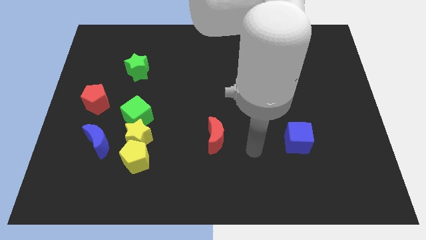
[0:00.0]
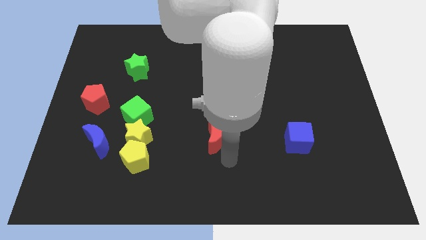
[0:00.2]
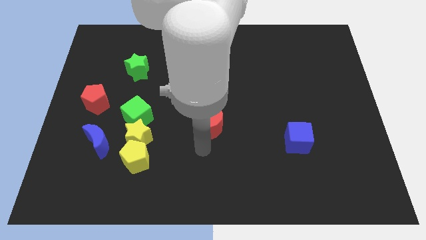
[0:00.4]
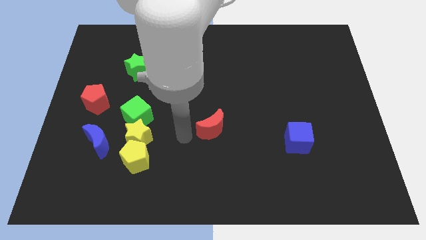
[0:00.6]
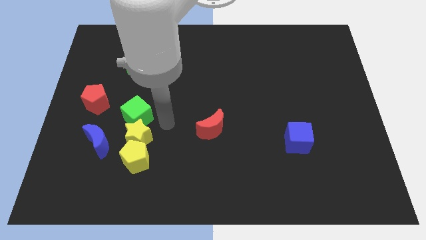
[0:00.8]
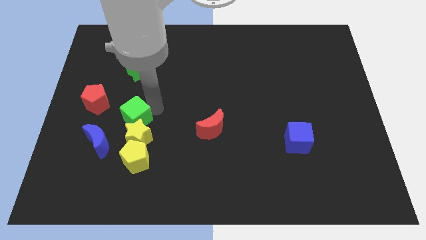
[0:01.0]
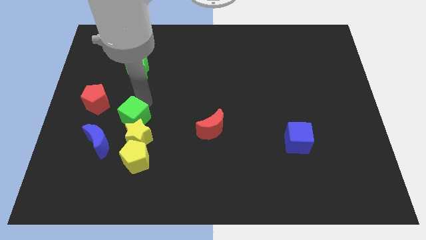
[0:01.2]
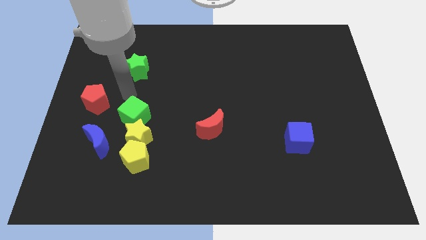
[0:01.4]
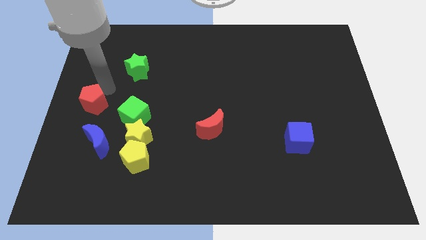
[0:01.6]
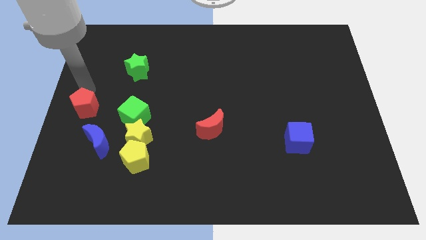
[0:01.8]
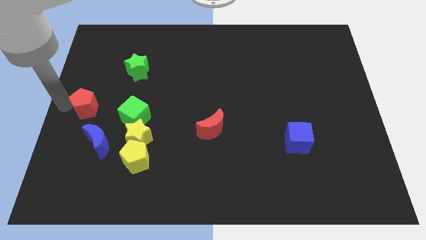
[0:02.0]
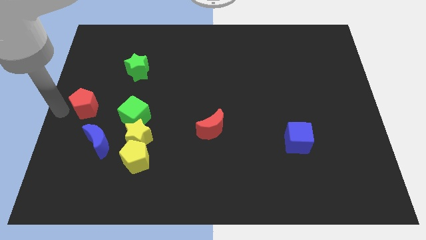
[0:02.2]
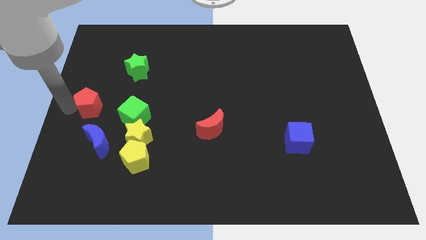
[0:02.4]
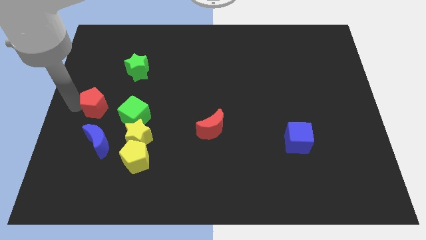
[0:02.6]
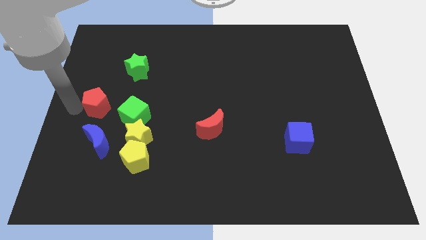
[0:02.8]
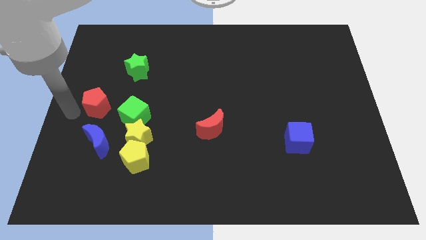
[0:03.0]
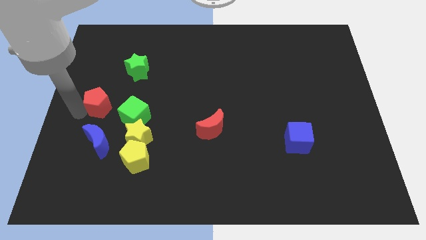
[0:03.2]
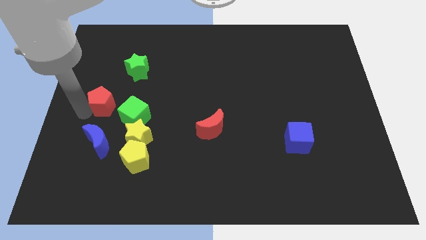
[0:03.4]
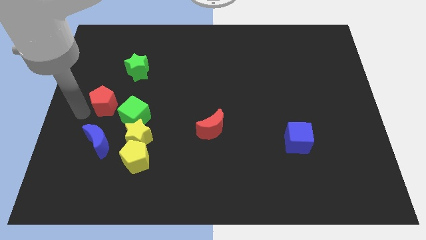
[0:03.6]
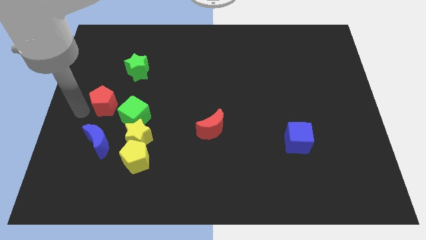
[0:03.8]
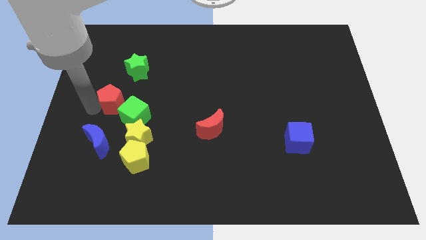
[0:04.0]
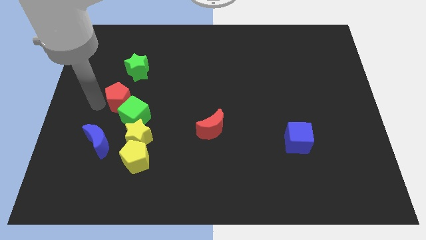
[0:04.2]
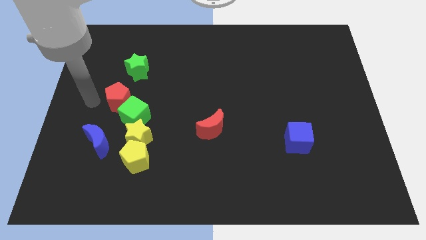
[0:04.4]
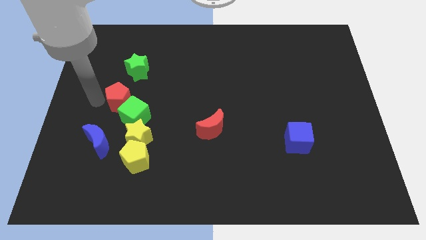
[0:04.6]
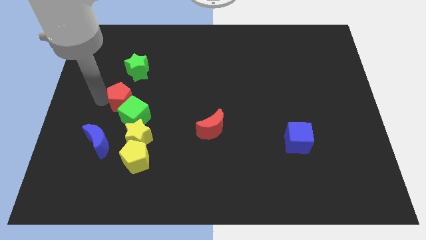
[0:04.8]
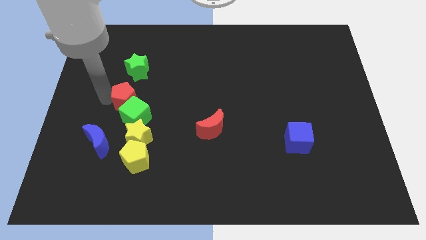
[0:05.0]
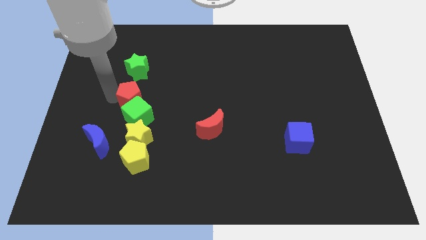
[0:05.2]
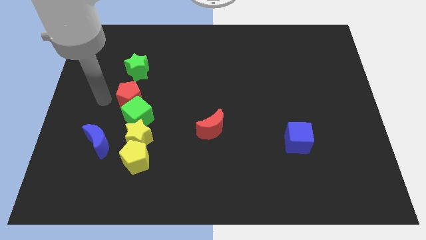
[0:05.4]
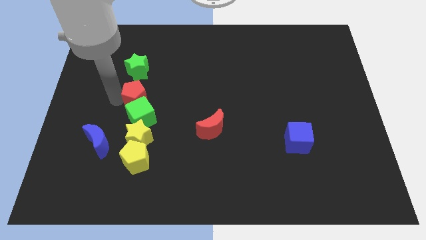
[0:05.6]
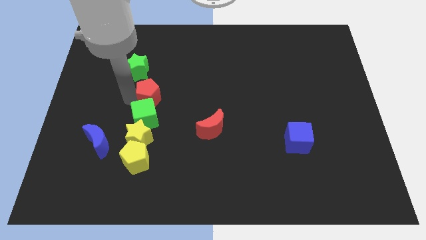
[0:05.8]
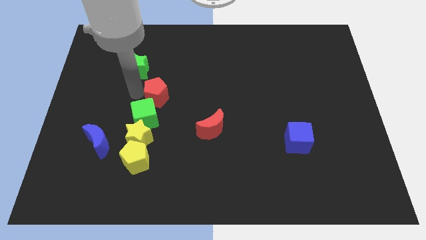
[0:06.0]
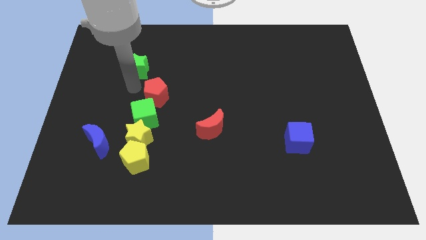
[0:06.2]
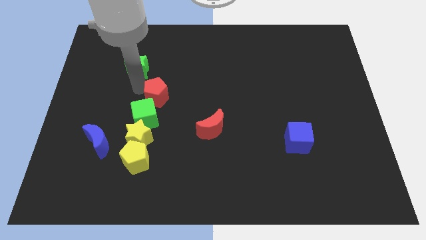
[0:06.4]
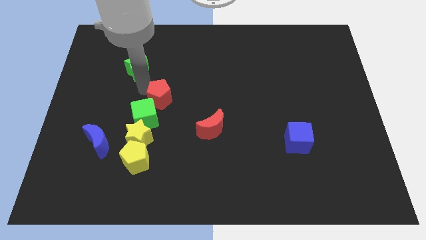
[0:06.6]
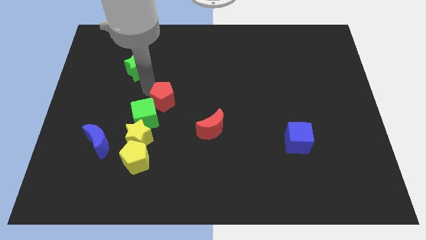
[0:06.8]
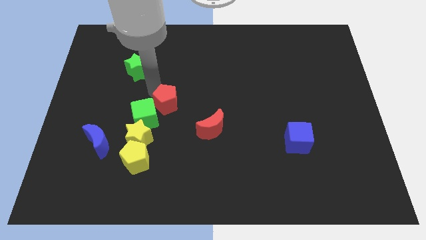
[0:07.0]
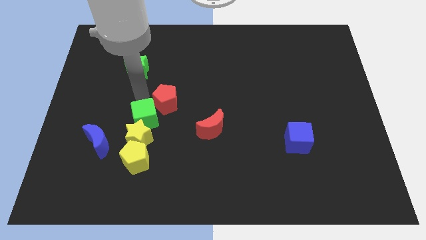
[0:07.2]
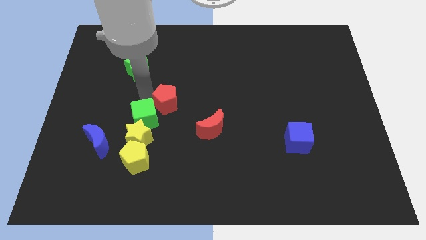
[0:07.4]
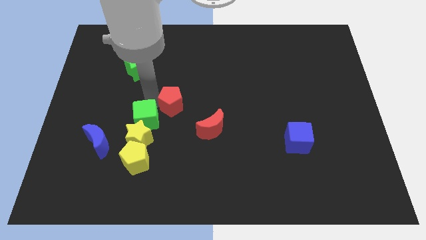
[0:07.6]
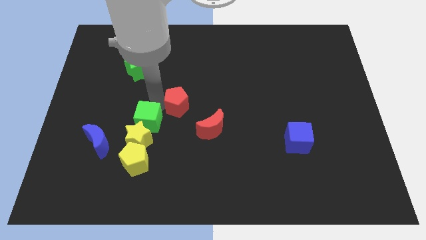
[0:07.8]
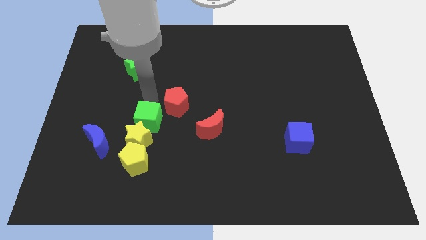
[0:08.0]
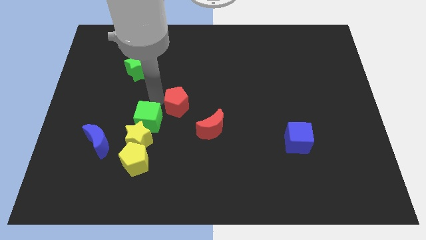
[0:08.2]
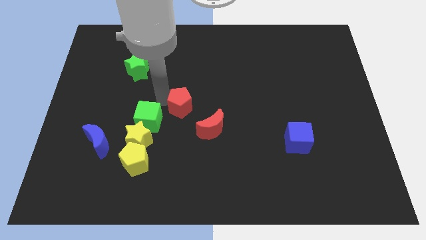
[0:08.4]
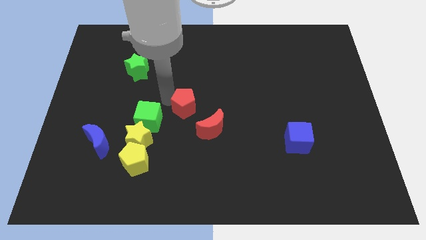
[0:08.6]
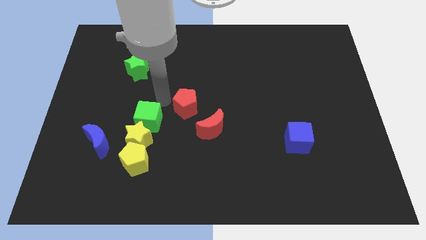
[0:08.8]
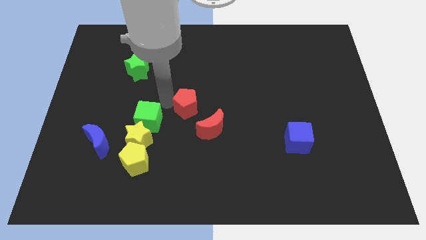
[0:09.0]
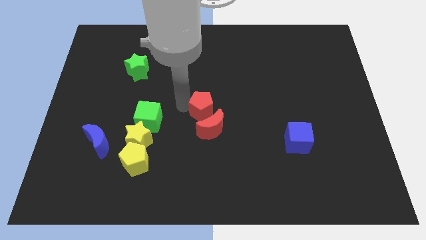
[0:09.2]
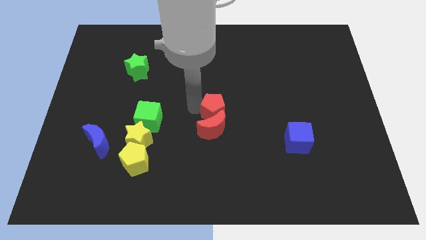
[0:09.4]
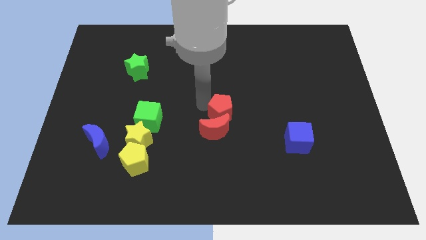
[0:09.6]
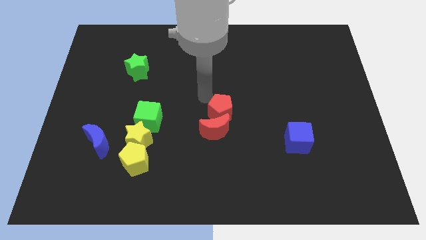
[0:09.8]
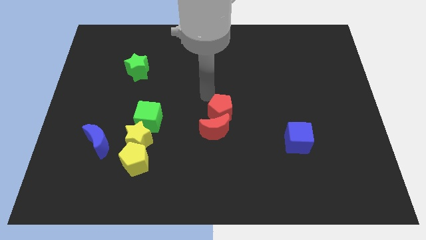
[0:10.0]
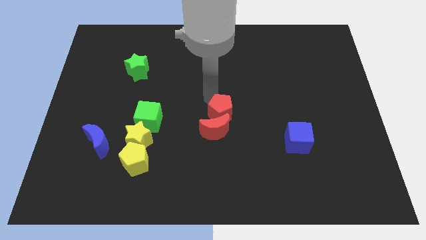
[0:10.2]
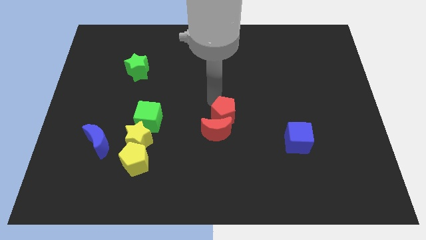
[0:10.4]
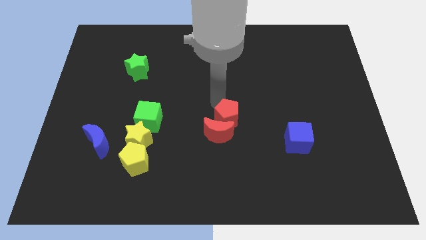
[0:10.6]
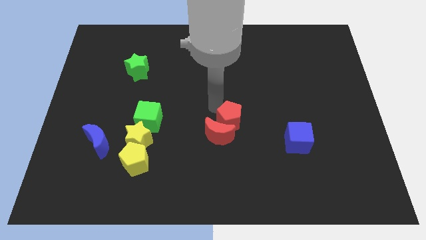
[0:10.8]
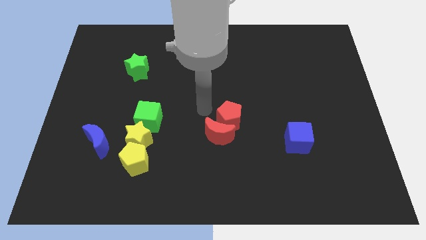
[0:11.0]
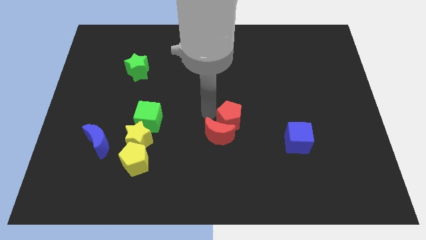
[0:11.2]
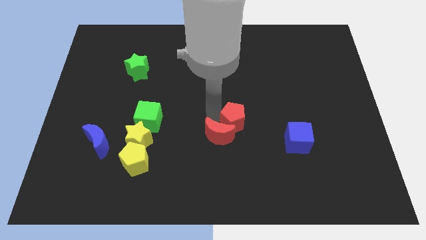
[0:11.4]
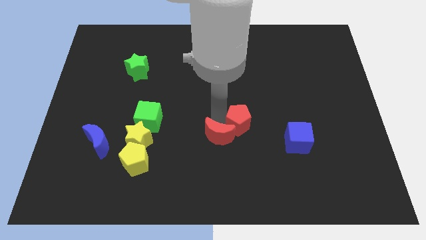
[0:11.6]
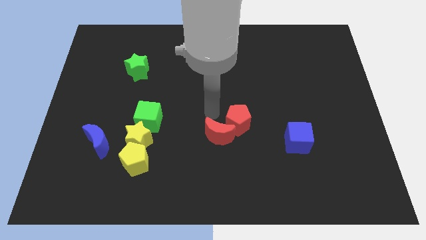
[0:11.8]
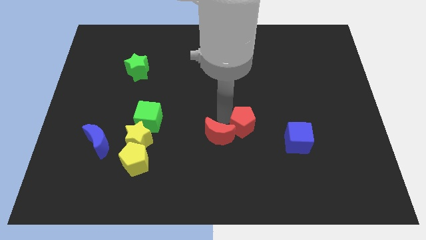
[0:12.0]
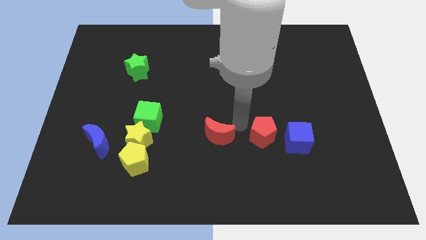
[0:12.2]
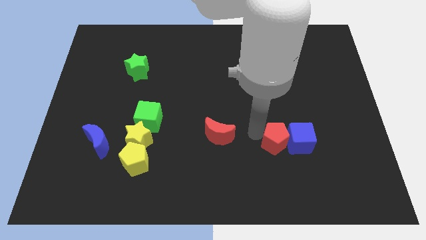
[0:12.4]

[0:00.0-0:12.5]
slide the red pentagon towards the blue cube
